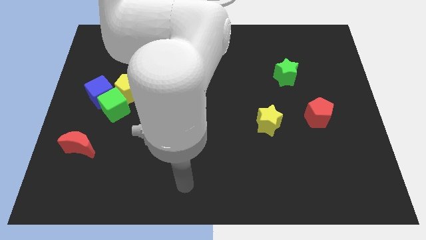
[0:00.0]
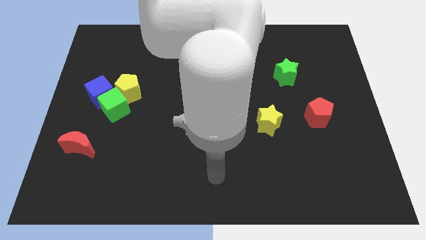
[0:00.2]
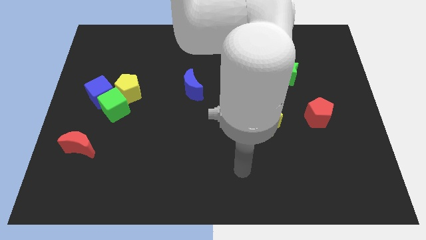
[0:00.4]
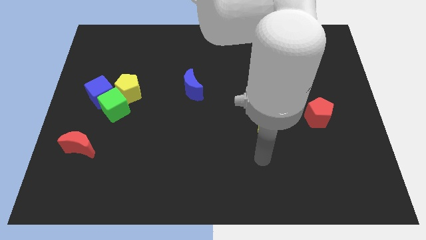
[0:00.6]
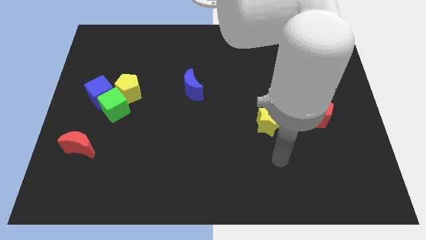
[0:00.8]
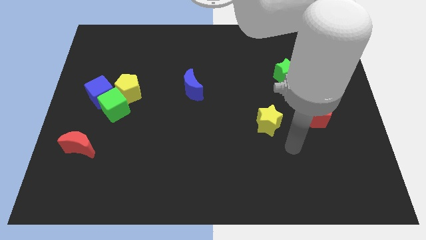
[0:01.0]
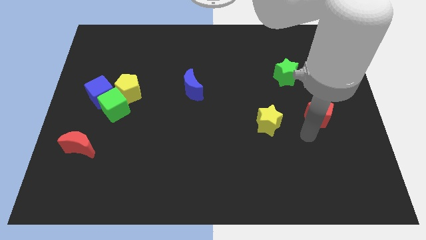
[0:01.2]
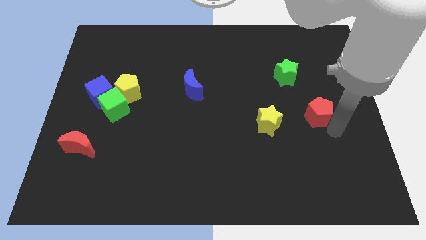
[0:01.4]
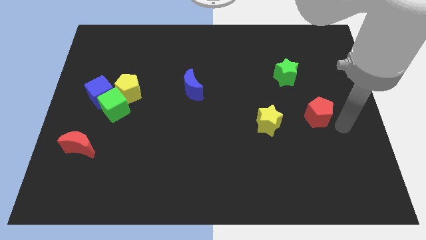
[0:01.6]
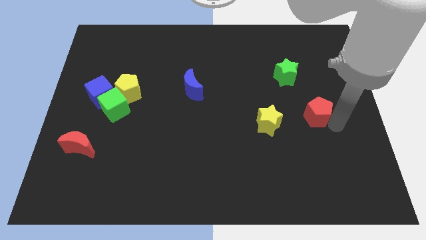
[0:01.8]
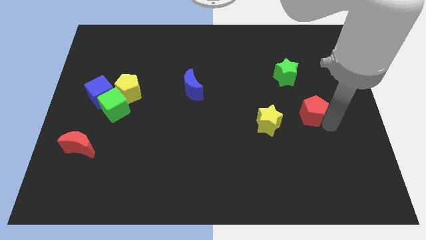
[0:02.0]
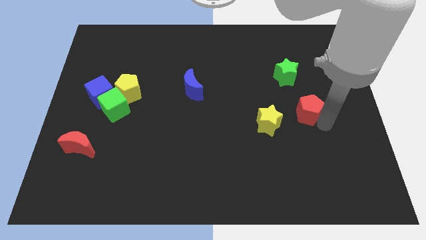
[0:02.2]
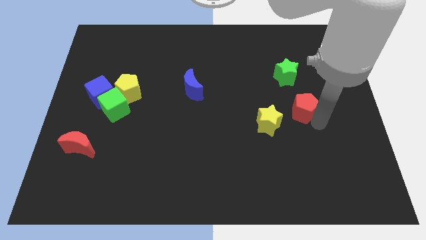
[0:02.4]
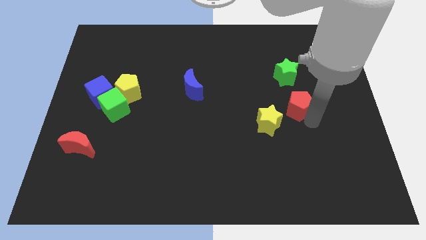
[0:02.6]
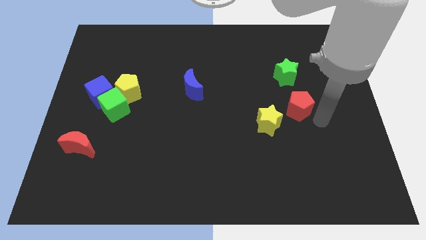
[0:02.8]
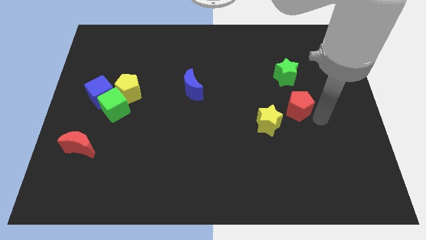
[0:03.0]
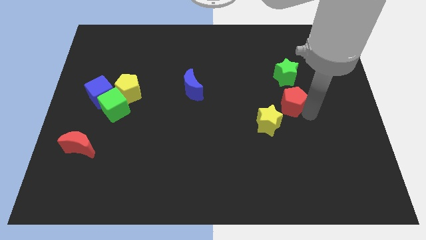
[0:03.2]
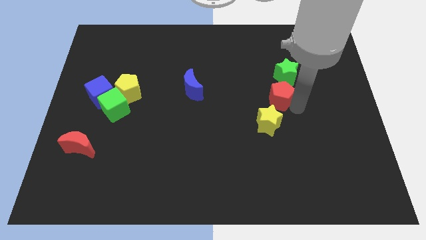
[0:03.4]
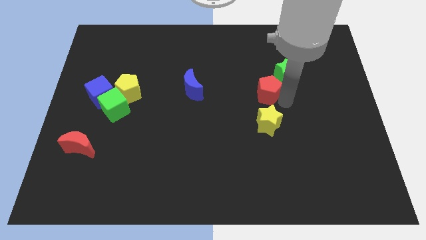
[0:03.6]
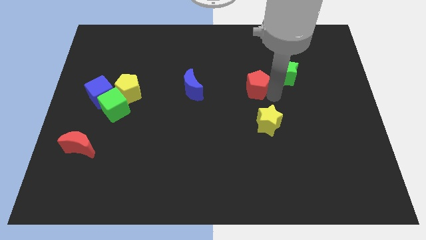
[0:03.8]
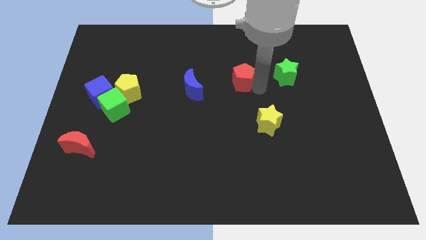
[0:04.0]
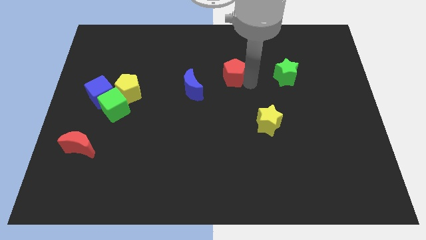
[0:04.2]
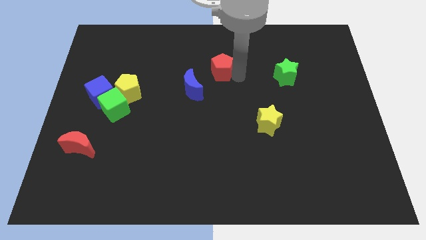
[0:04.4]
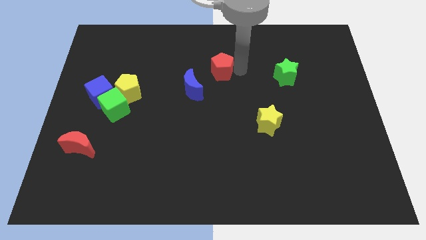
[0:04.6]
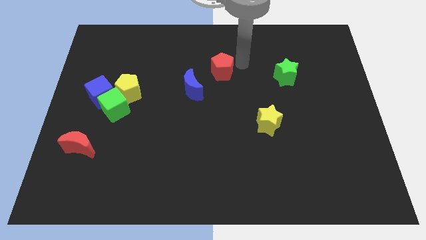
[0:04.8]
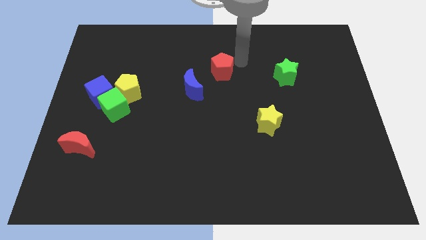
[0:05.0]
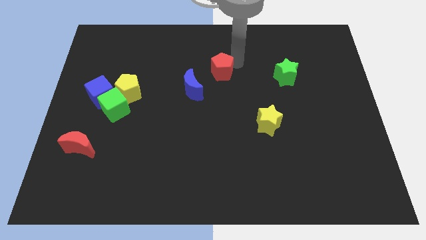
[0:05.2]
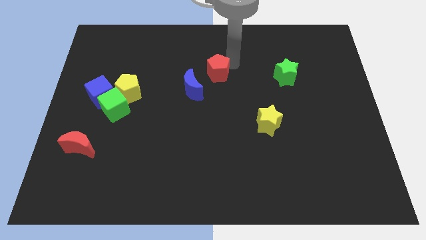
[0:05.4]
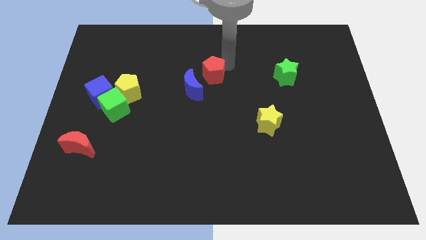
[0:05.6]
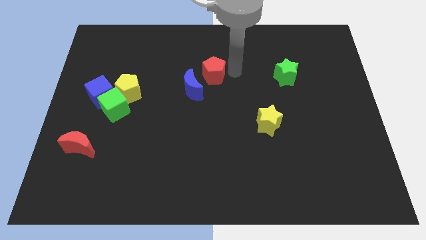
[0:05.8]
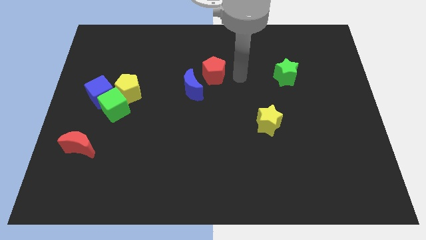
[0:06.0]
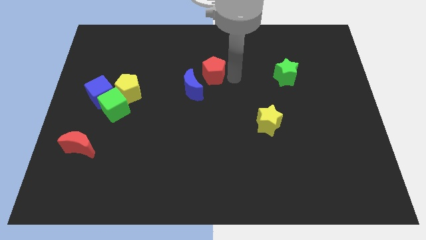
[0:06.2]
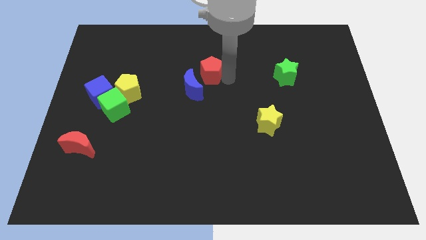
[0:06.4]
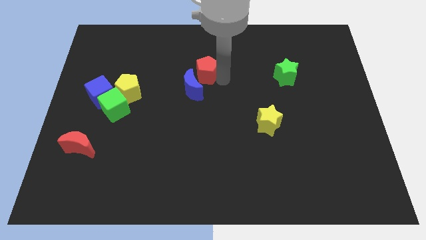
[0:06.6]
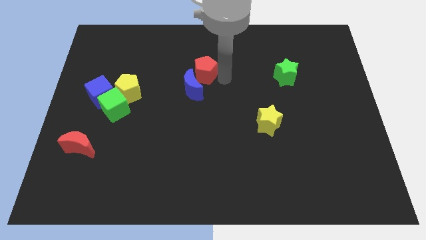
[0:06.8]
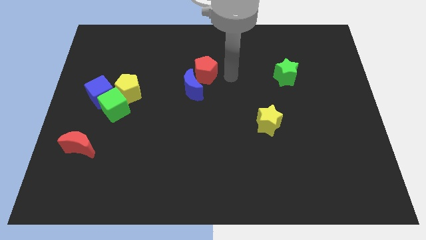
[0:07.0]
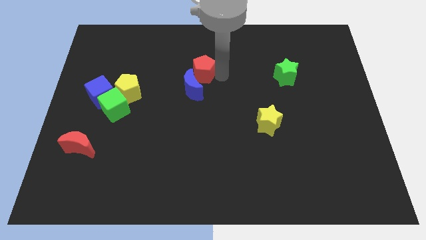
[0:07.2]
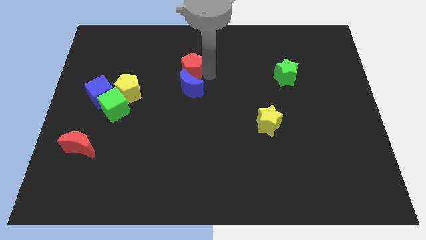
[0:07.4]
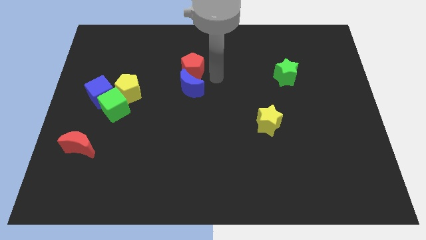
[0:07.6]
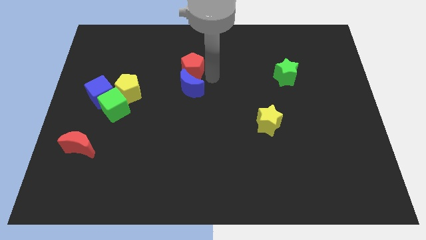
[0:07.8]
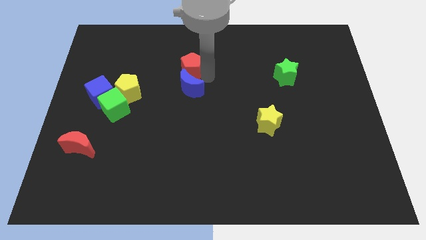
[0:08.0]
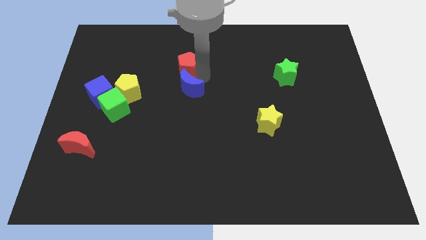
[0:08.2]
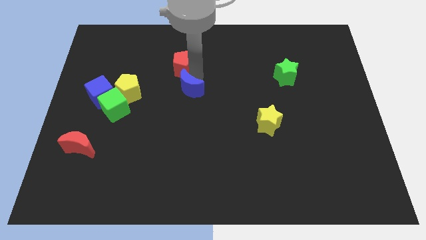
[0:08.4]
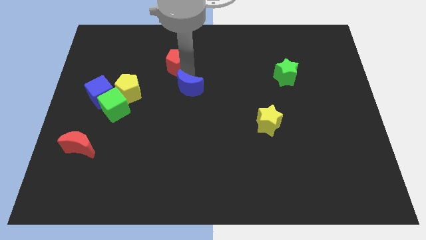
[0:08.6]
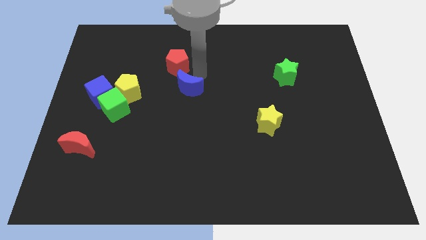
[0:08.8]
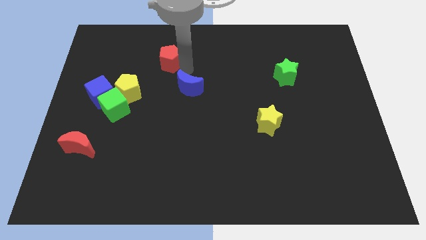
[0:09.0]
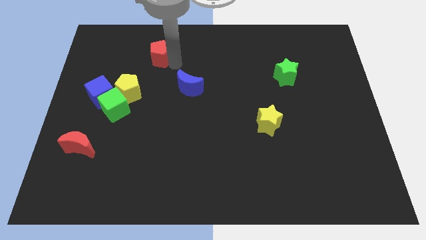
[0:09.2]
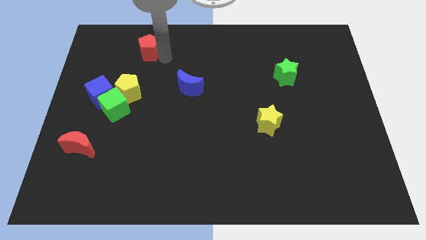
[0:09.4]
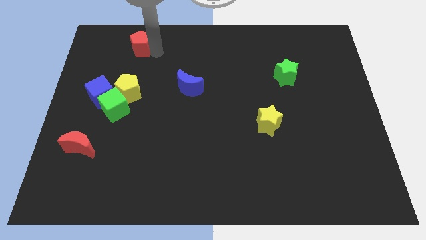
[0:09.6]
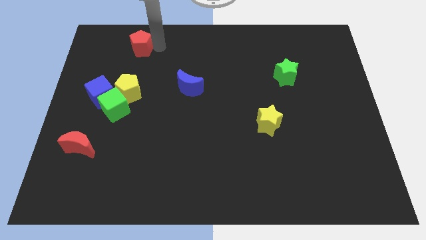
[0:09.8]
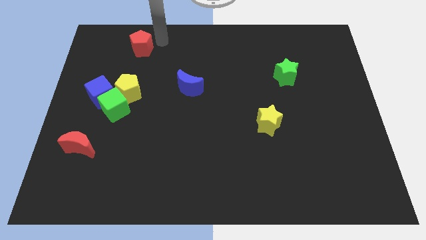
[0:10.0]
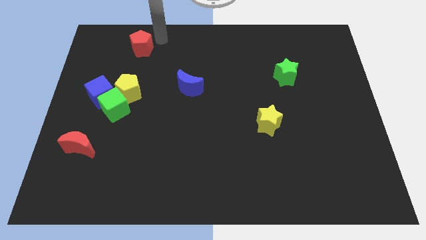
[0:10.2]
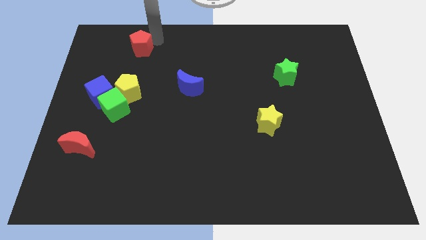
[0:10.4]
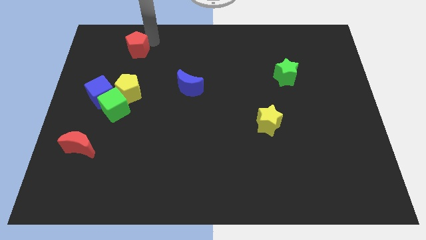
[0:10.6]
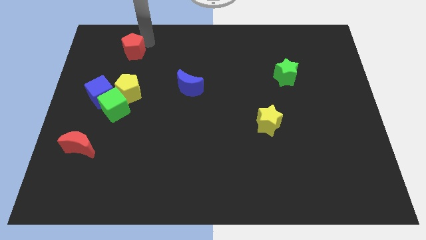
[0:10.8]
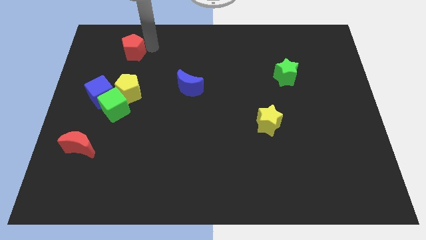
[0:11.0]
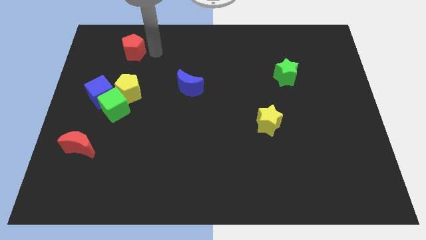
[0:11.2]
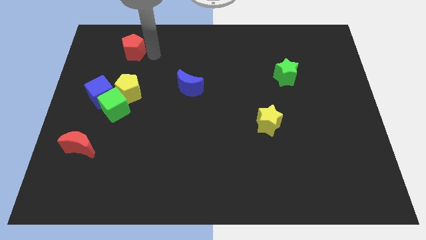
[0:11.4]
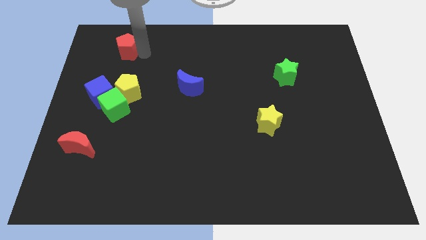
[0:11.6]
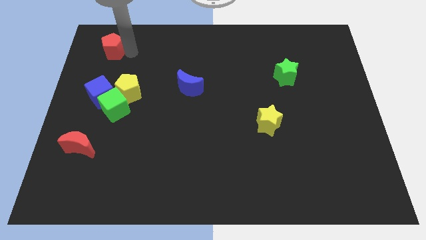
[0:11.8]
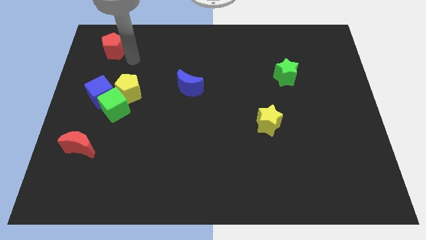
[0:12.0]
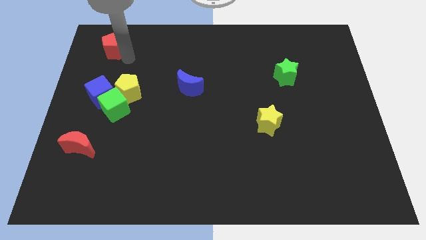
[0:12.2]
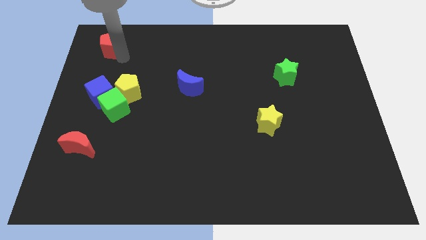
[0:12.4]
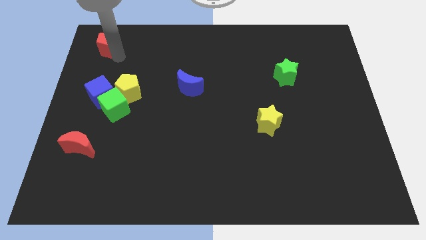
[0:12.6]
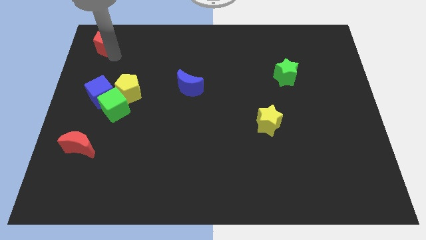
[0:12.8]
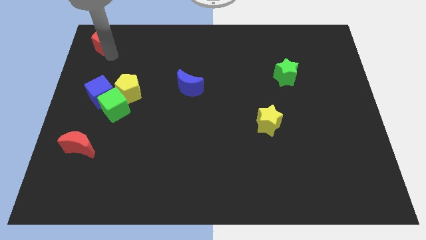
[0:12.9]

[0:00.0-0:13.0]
move the red pentagon to the top left of the board

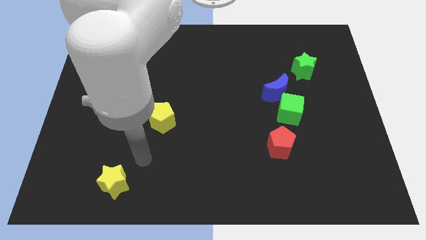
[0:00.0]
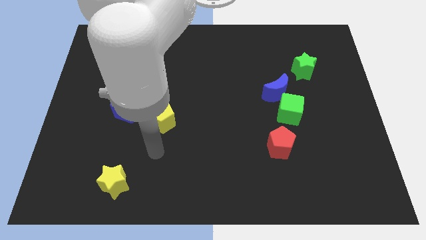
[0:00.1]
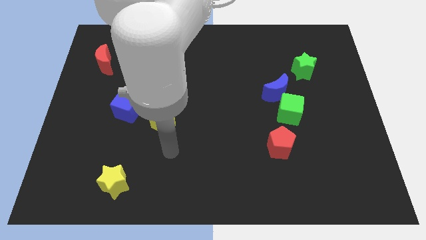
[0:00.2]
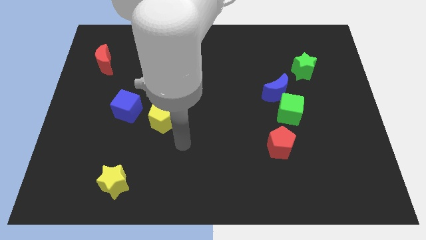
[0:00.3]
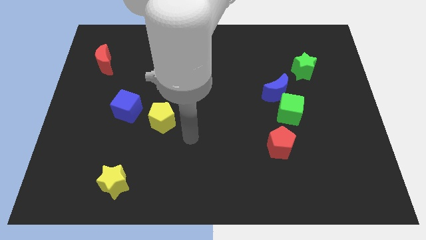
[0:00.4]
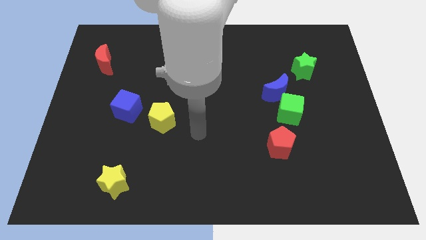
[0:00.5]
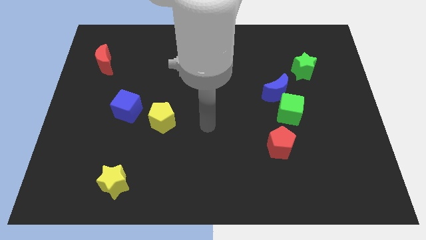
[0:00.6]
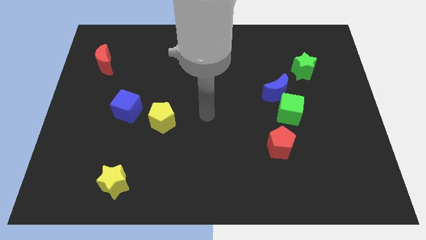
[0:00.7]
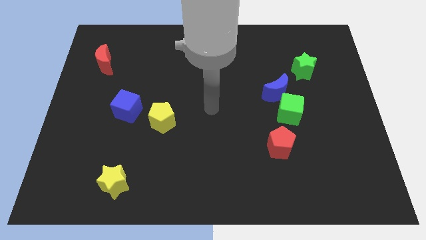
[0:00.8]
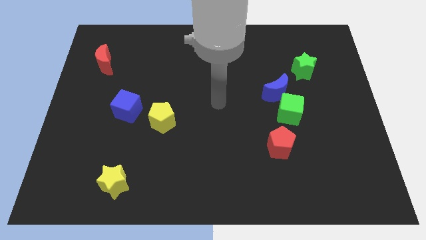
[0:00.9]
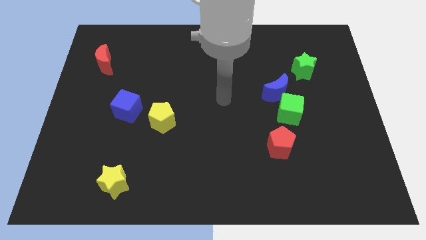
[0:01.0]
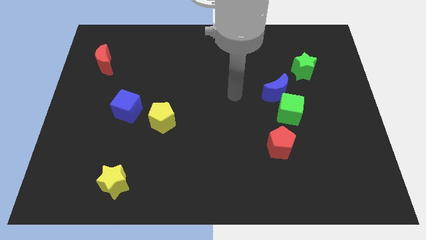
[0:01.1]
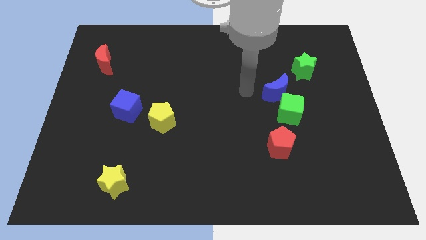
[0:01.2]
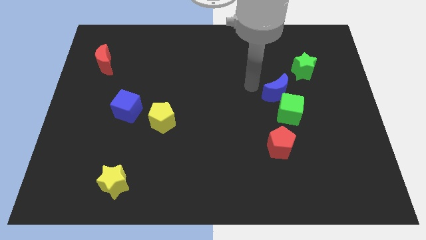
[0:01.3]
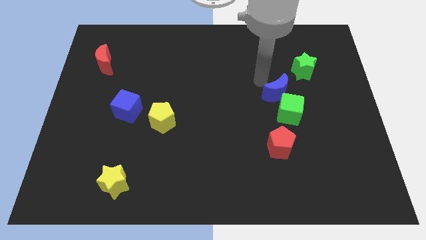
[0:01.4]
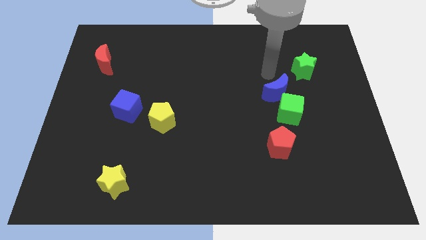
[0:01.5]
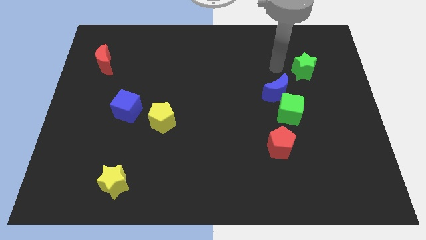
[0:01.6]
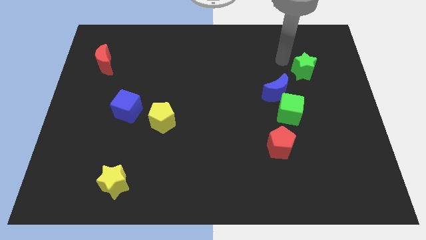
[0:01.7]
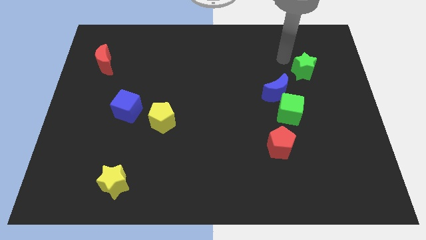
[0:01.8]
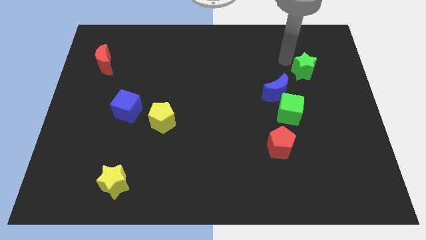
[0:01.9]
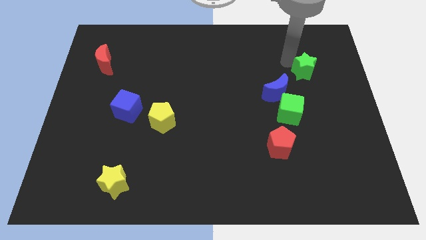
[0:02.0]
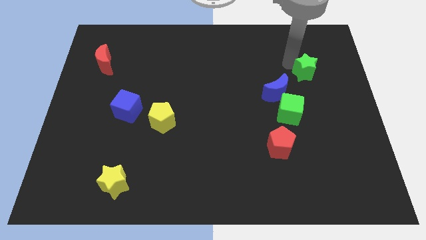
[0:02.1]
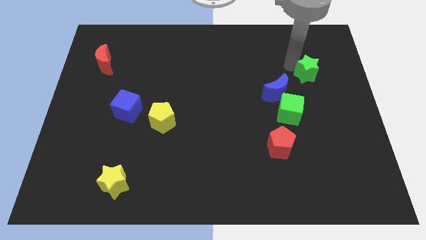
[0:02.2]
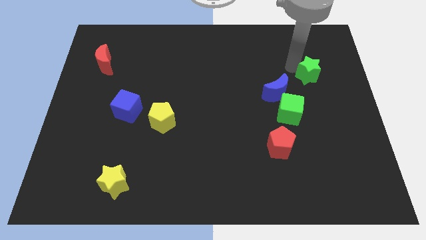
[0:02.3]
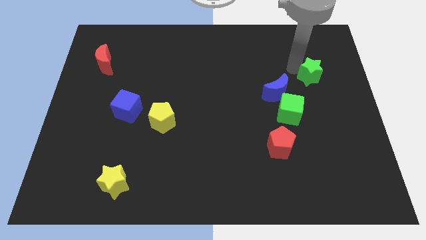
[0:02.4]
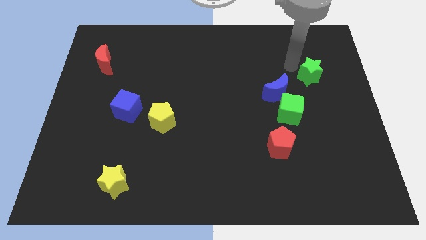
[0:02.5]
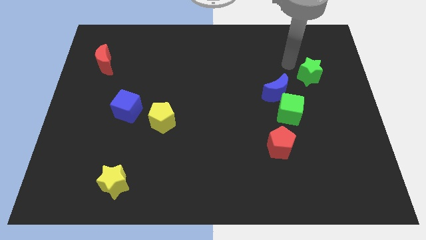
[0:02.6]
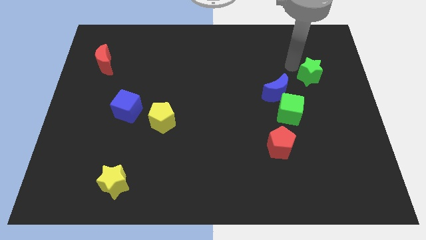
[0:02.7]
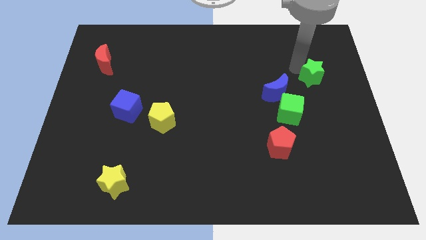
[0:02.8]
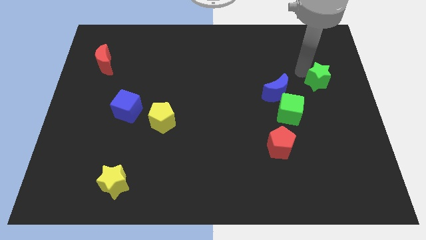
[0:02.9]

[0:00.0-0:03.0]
put the green star to the right side of the board
